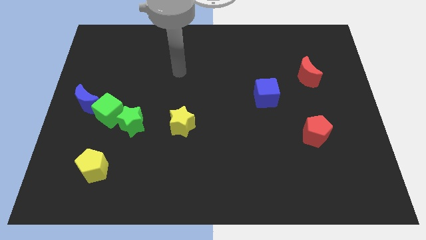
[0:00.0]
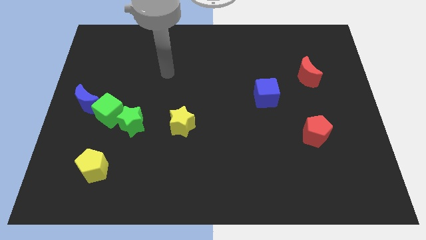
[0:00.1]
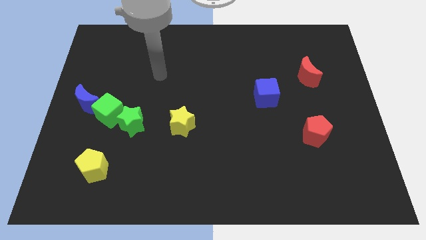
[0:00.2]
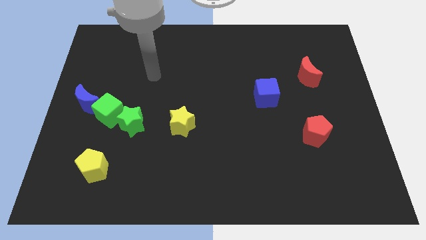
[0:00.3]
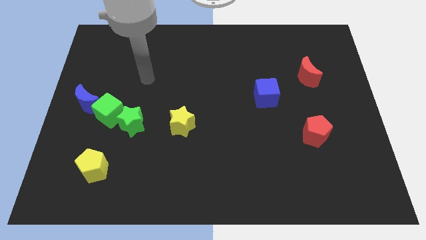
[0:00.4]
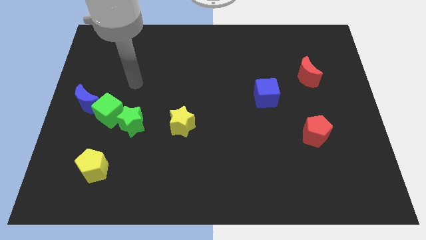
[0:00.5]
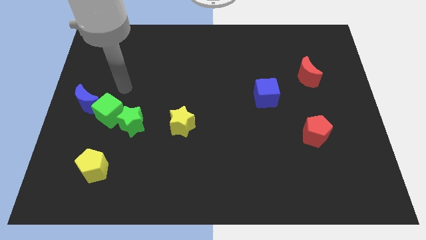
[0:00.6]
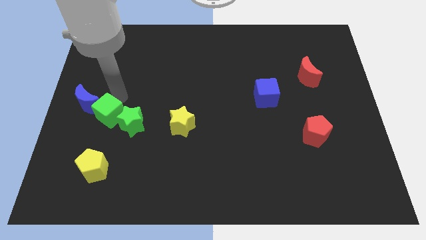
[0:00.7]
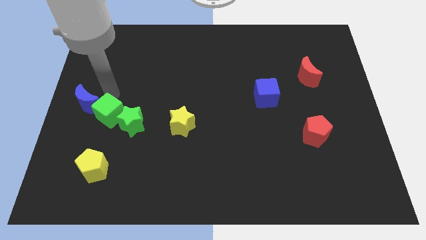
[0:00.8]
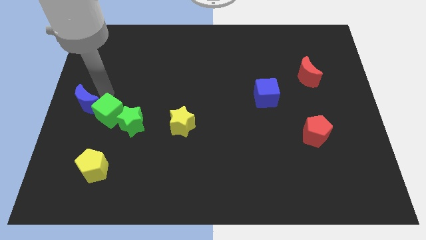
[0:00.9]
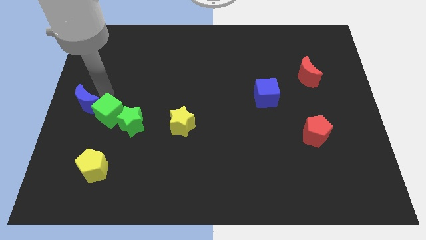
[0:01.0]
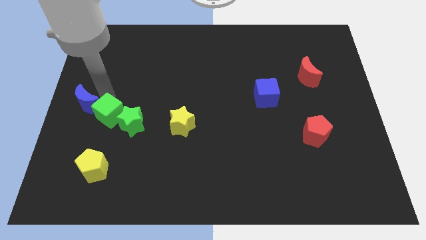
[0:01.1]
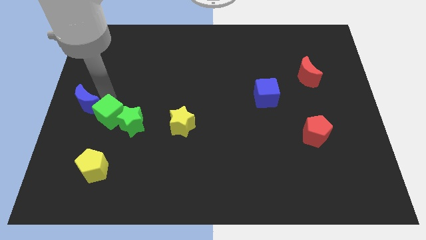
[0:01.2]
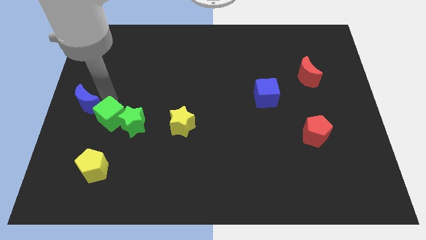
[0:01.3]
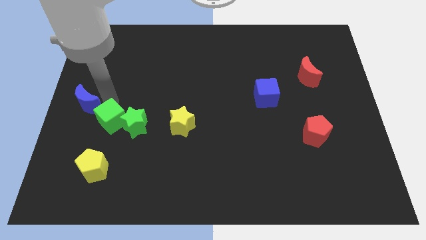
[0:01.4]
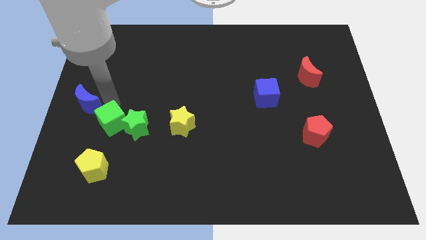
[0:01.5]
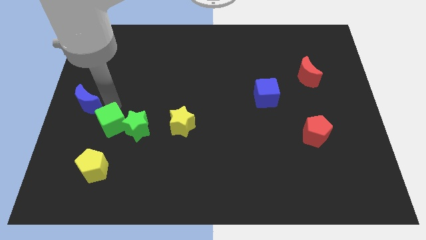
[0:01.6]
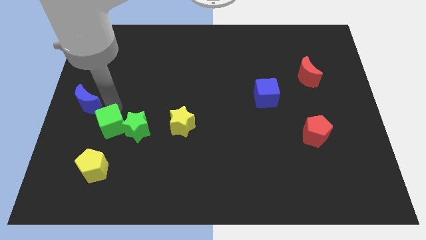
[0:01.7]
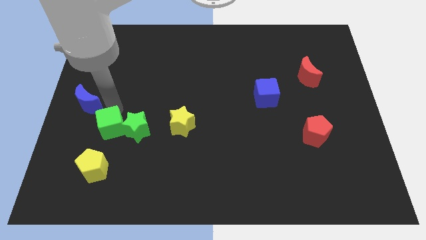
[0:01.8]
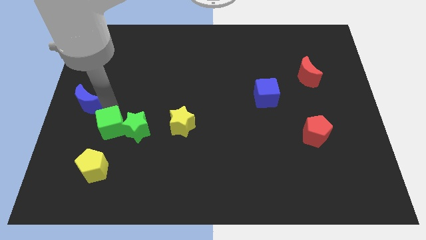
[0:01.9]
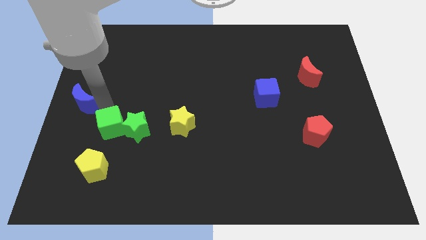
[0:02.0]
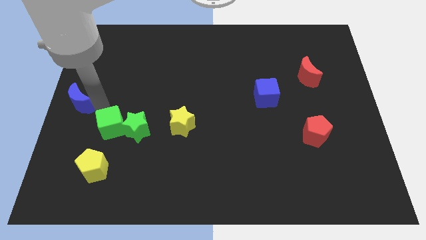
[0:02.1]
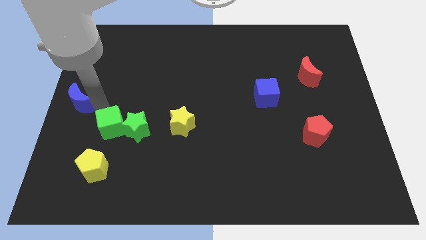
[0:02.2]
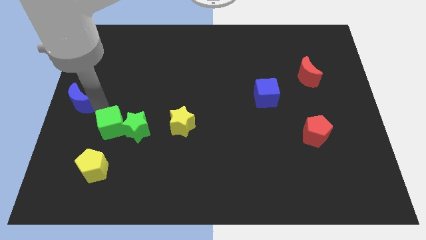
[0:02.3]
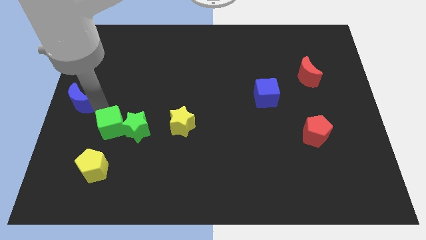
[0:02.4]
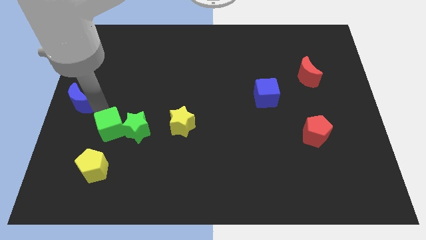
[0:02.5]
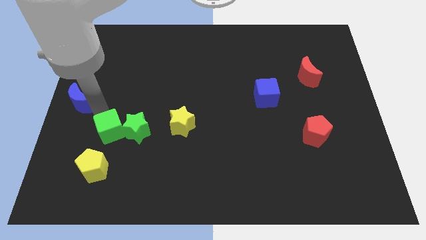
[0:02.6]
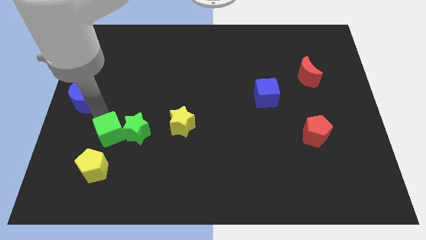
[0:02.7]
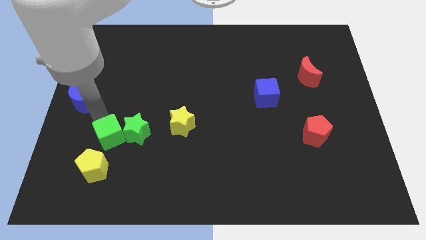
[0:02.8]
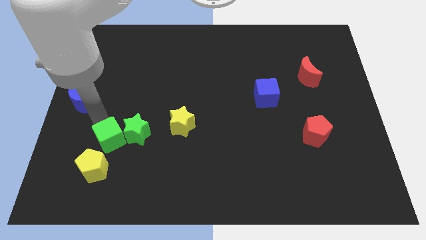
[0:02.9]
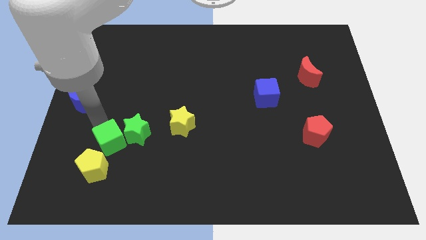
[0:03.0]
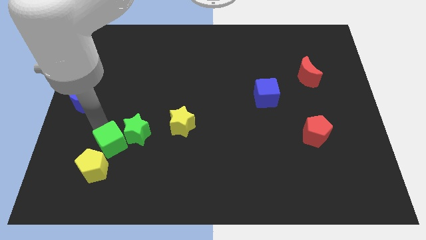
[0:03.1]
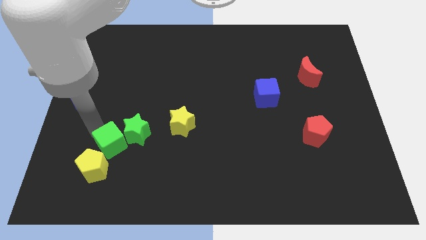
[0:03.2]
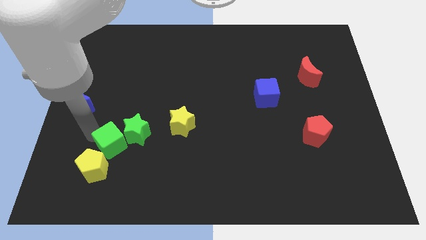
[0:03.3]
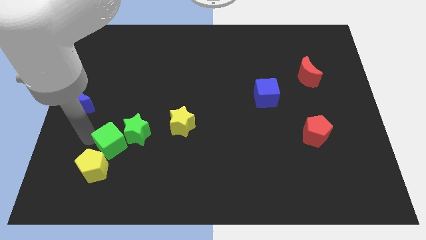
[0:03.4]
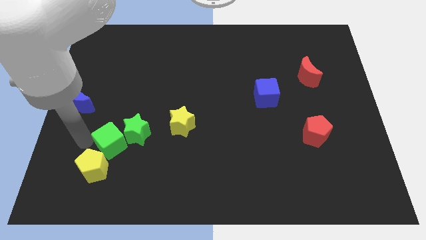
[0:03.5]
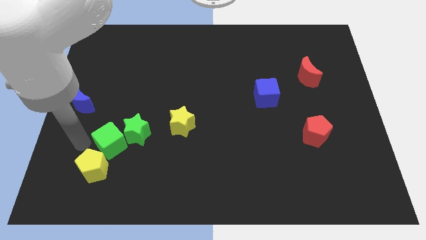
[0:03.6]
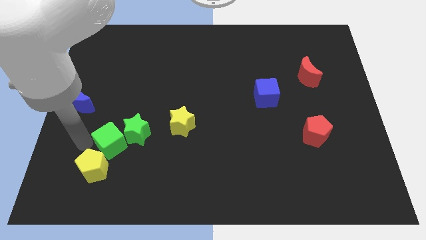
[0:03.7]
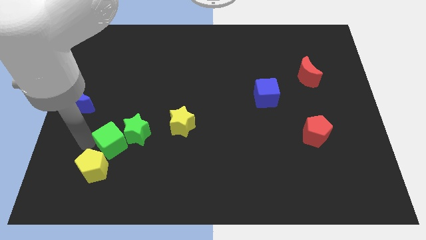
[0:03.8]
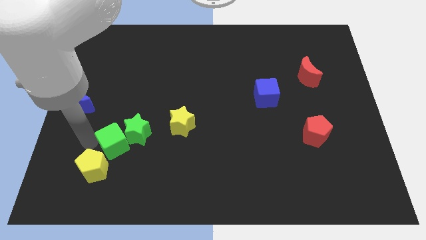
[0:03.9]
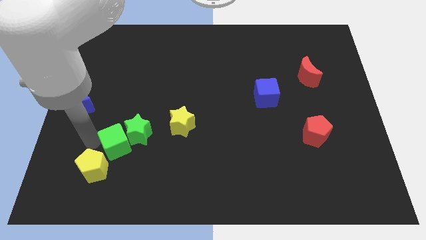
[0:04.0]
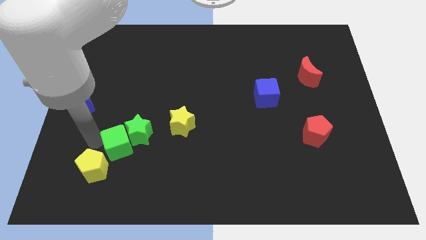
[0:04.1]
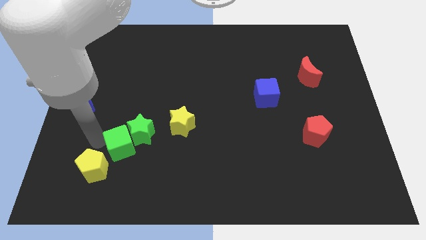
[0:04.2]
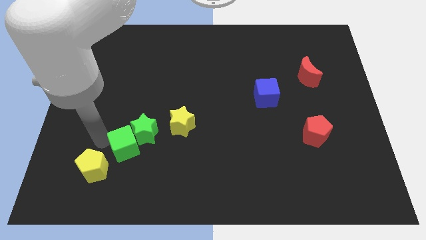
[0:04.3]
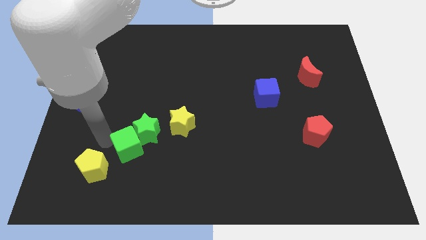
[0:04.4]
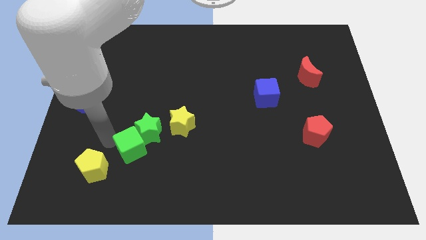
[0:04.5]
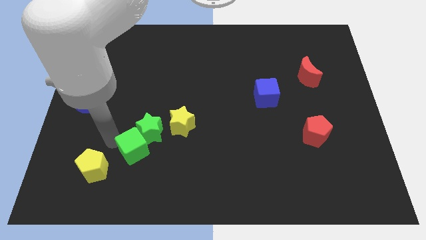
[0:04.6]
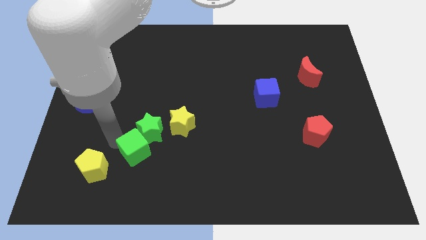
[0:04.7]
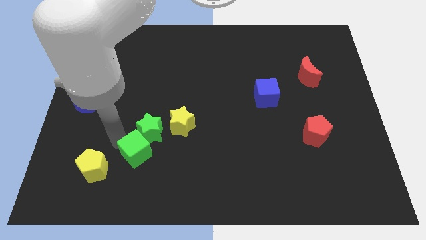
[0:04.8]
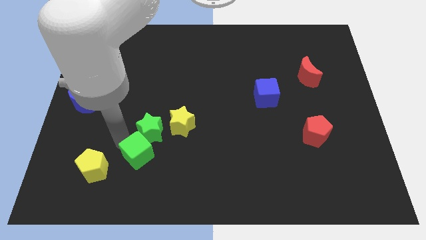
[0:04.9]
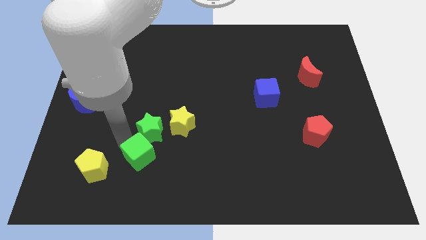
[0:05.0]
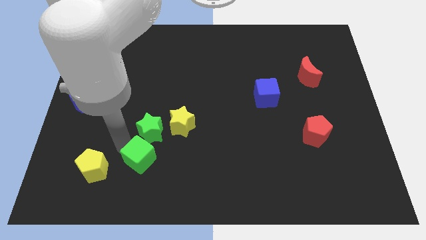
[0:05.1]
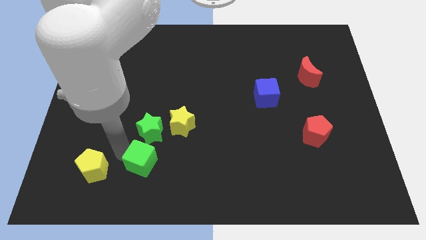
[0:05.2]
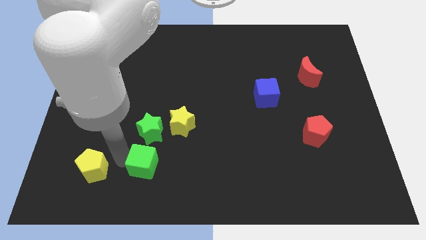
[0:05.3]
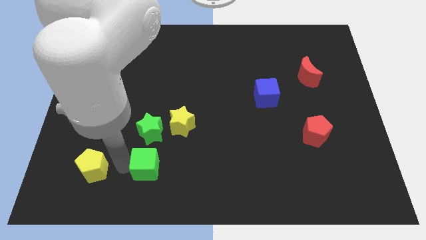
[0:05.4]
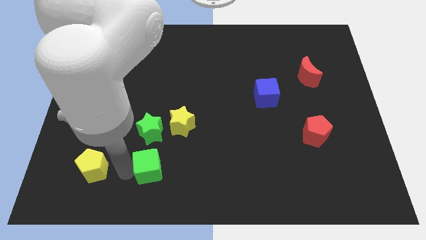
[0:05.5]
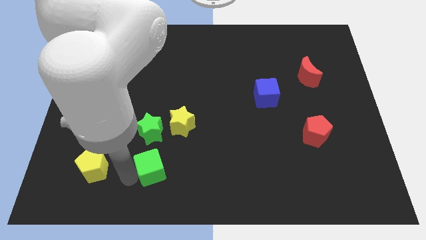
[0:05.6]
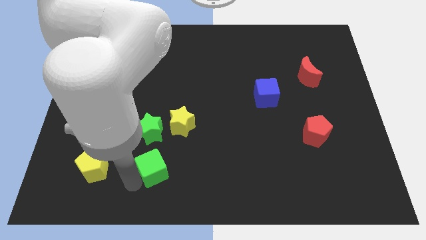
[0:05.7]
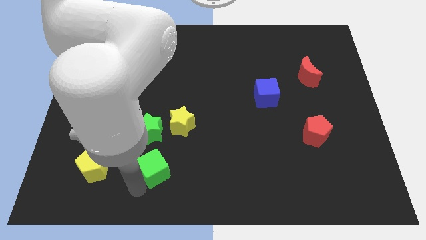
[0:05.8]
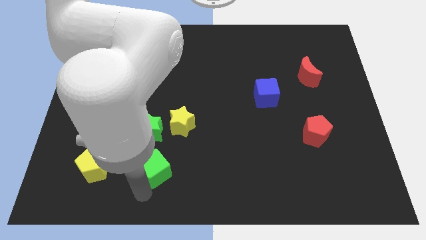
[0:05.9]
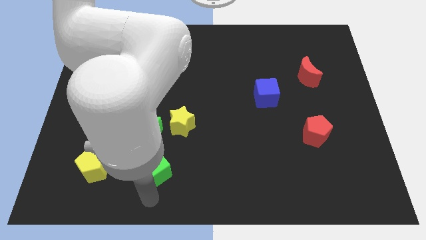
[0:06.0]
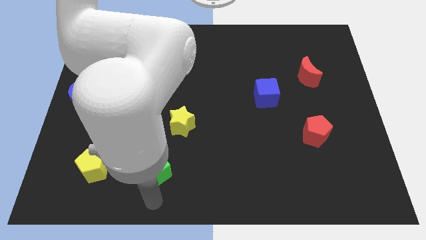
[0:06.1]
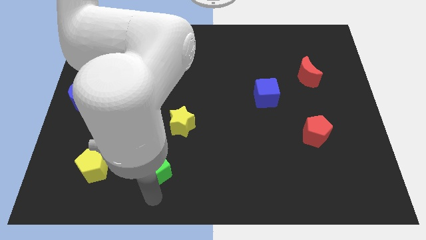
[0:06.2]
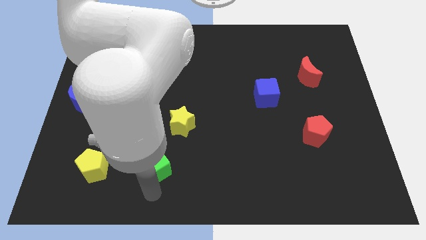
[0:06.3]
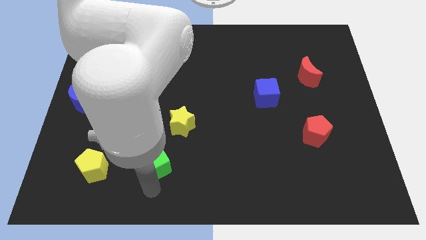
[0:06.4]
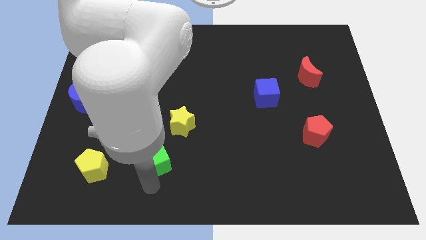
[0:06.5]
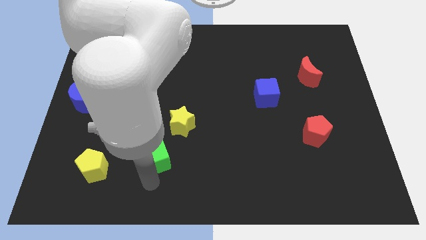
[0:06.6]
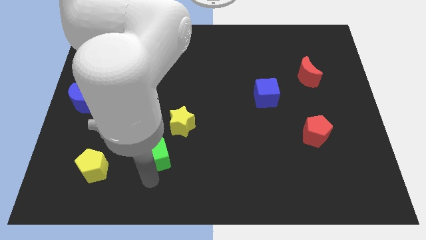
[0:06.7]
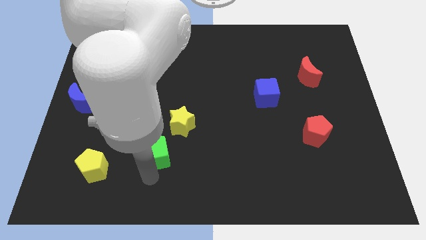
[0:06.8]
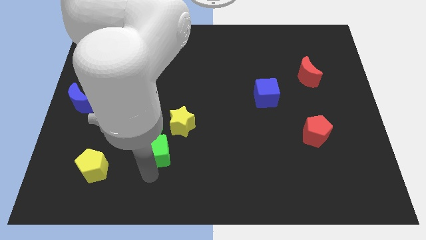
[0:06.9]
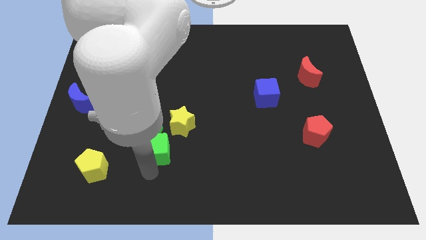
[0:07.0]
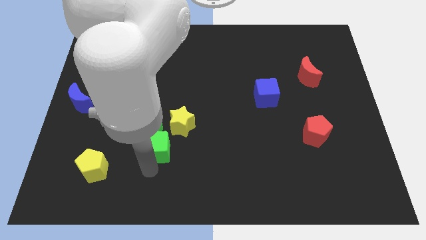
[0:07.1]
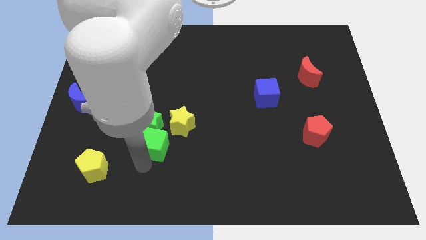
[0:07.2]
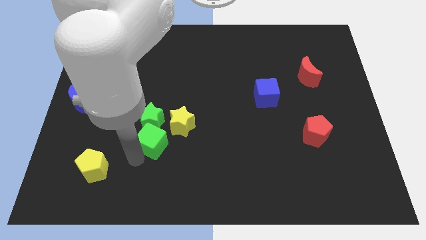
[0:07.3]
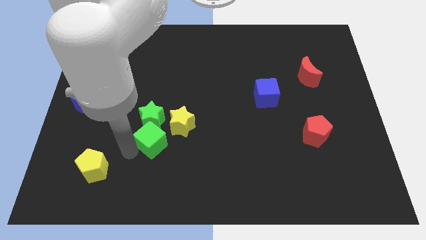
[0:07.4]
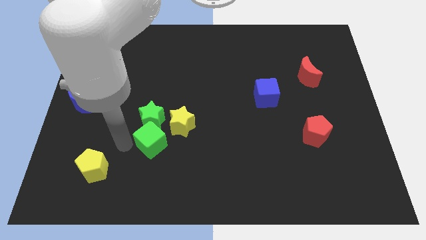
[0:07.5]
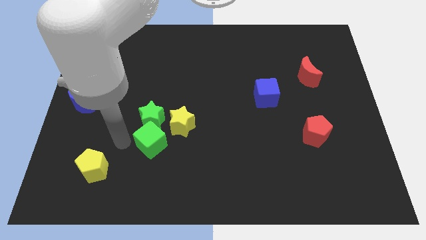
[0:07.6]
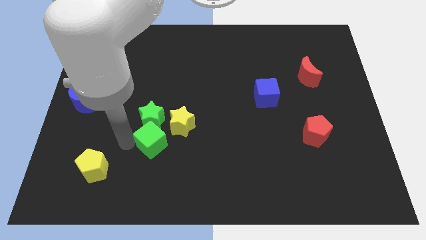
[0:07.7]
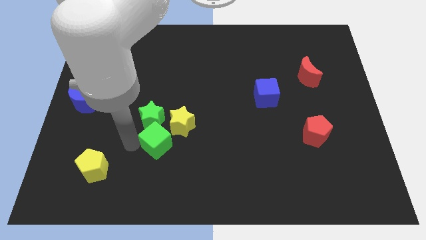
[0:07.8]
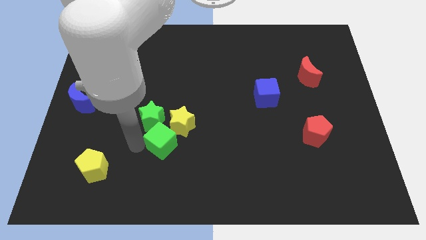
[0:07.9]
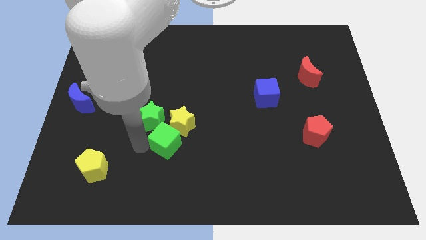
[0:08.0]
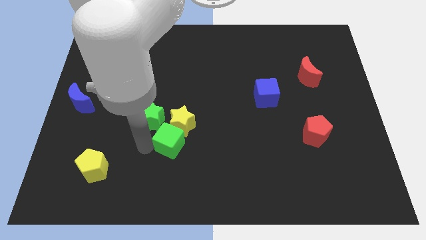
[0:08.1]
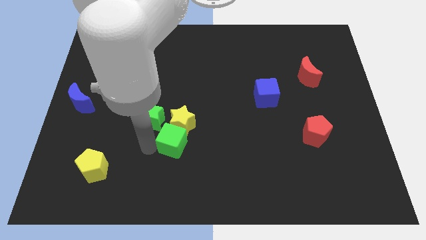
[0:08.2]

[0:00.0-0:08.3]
slide the green cube to the bottom right side of the yellow star
